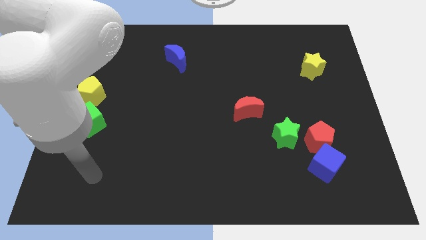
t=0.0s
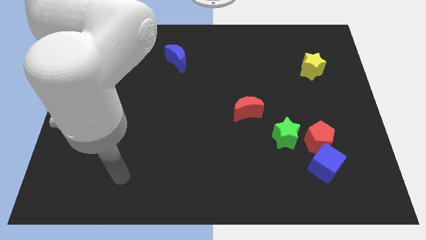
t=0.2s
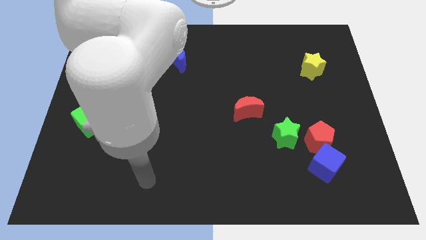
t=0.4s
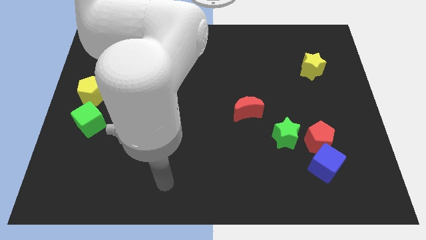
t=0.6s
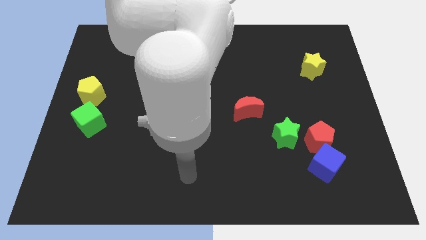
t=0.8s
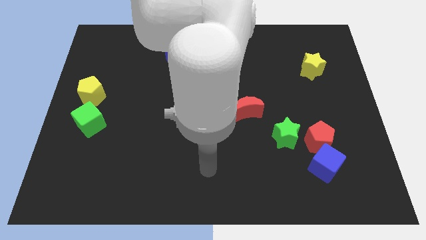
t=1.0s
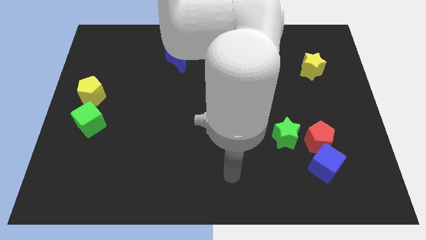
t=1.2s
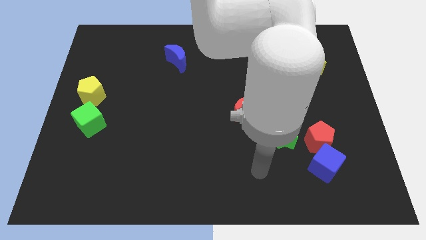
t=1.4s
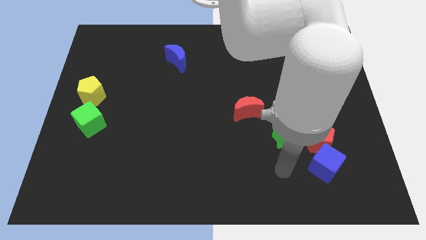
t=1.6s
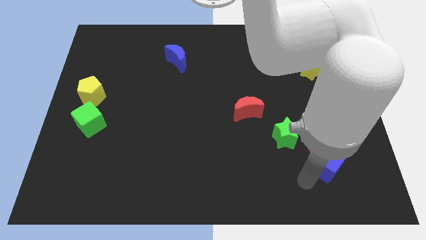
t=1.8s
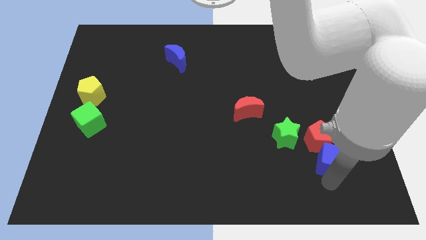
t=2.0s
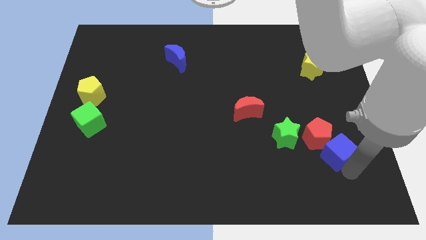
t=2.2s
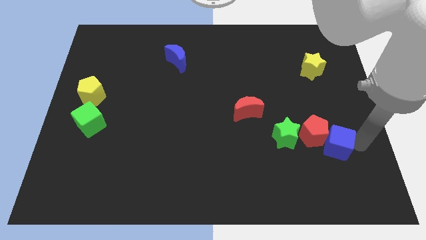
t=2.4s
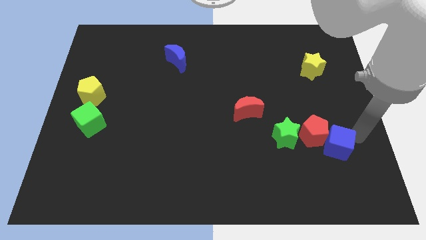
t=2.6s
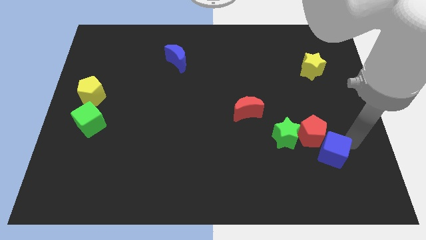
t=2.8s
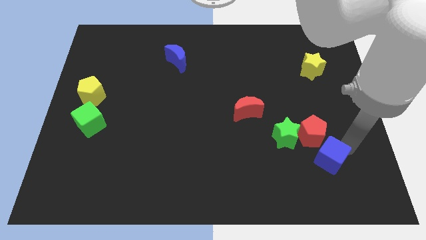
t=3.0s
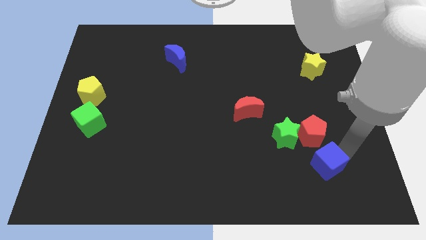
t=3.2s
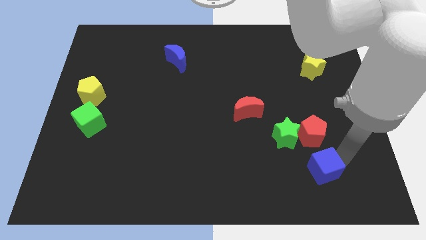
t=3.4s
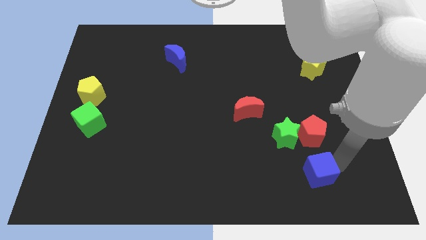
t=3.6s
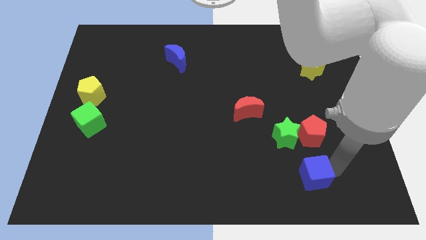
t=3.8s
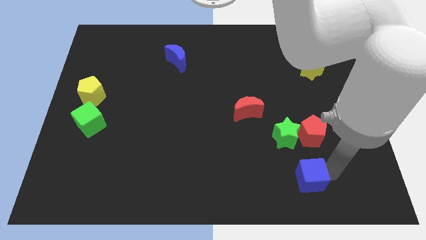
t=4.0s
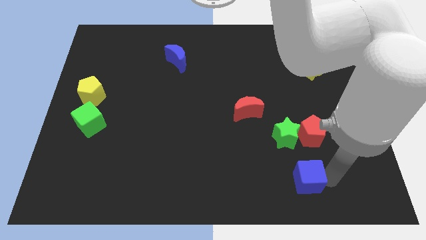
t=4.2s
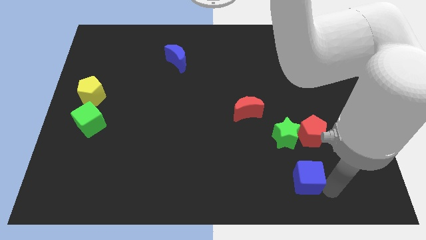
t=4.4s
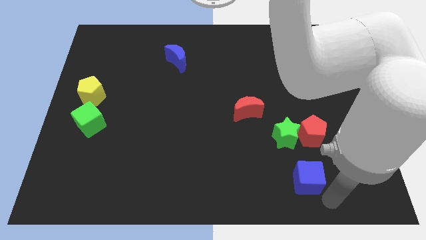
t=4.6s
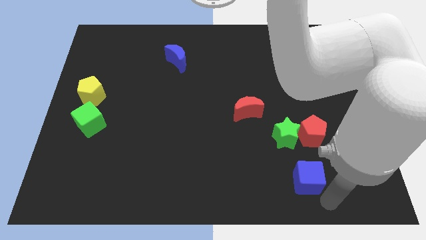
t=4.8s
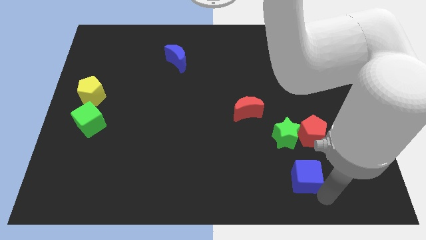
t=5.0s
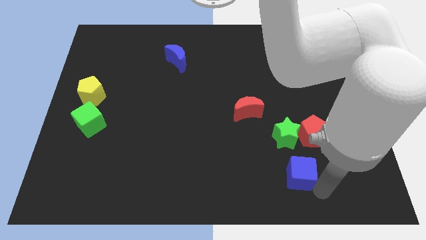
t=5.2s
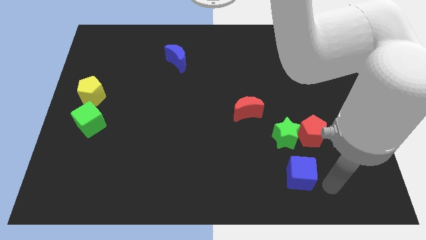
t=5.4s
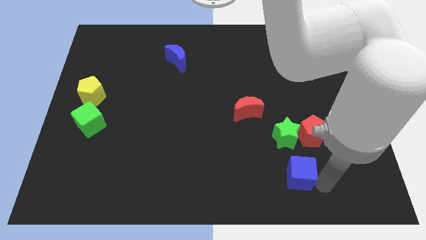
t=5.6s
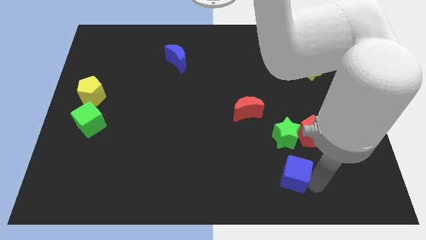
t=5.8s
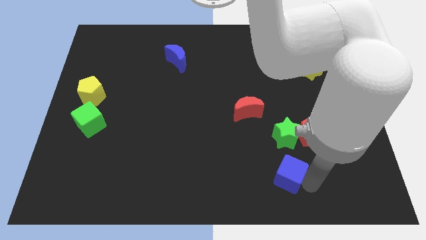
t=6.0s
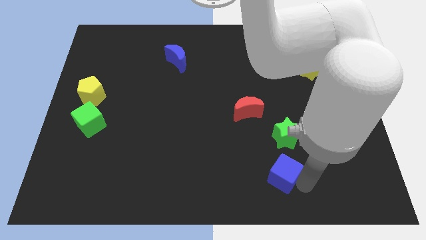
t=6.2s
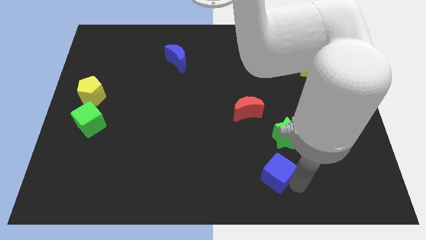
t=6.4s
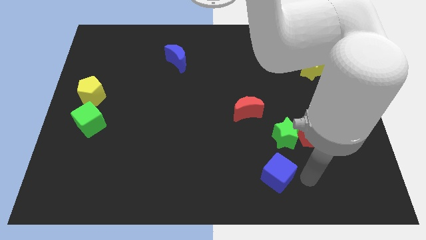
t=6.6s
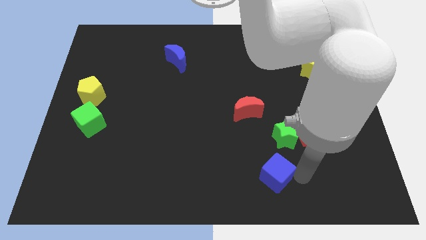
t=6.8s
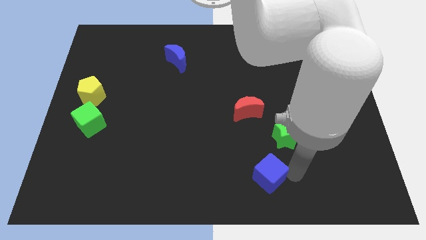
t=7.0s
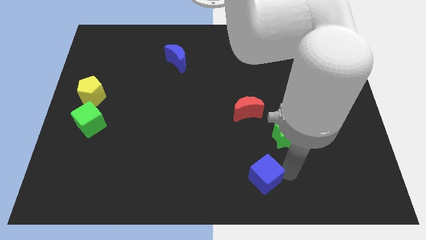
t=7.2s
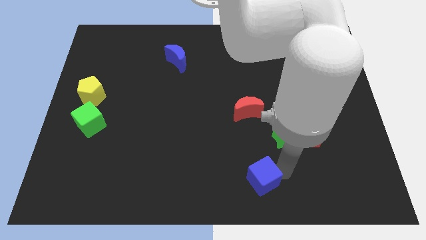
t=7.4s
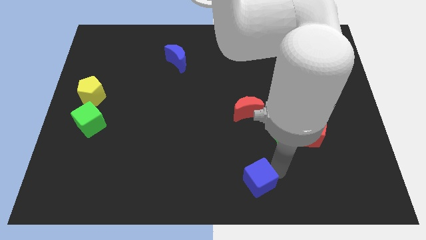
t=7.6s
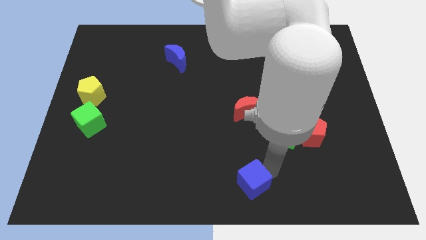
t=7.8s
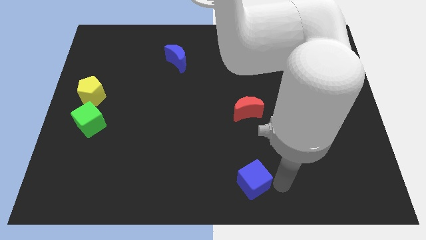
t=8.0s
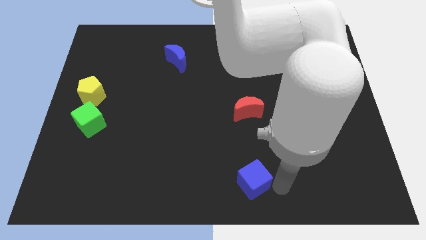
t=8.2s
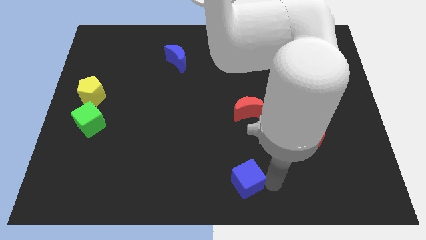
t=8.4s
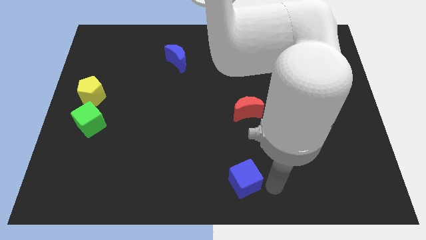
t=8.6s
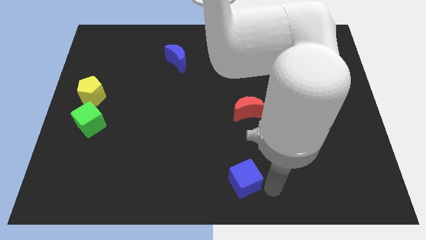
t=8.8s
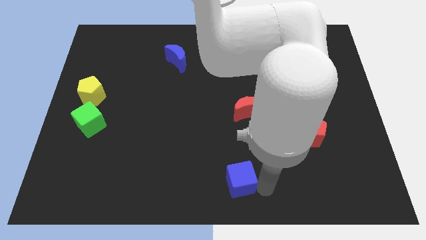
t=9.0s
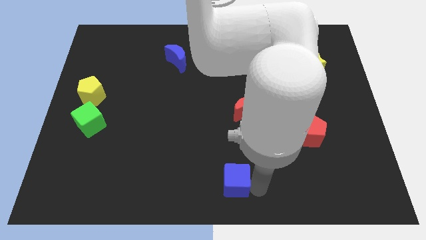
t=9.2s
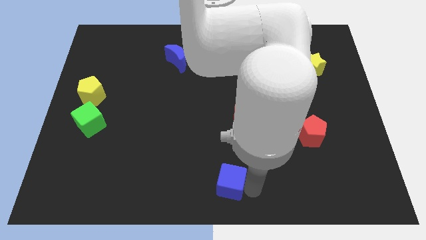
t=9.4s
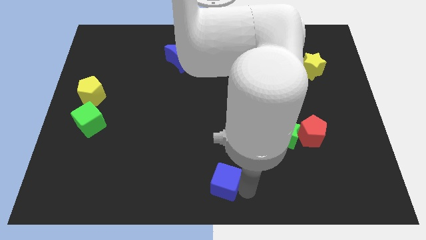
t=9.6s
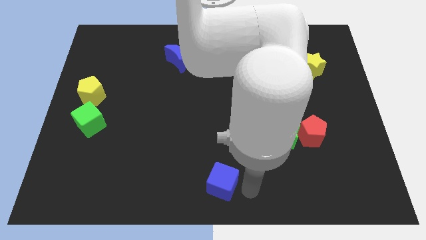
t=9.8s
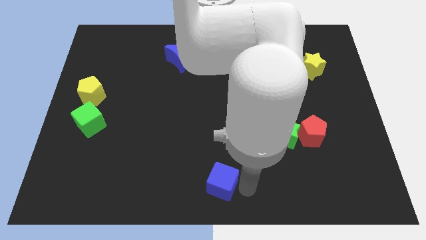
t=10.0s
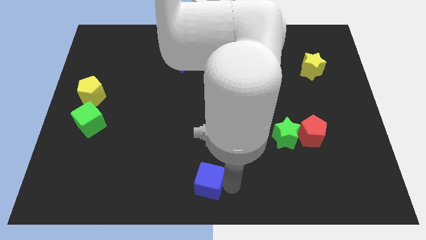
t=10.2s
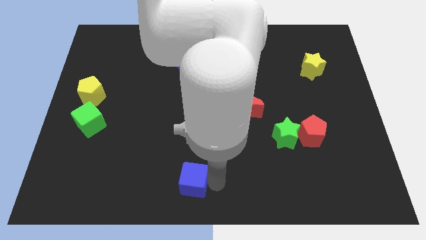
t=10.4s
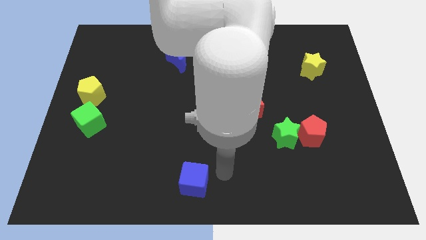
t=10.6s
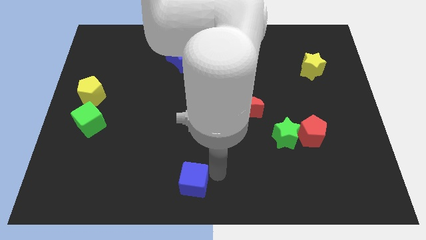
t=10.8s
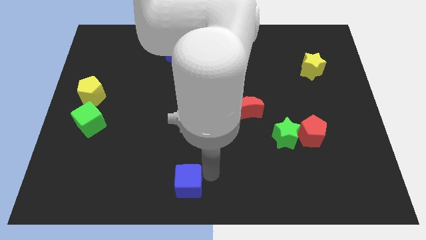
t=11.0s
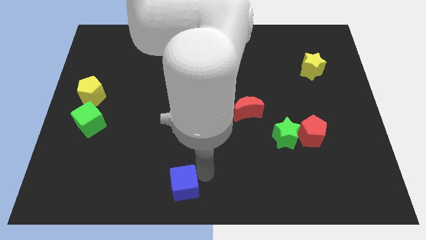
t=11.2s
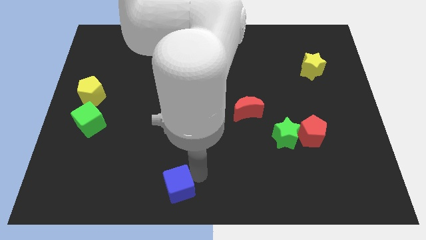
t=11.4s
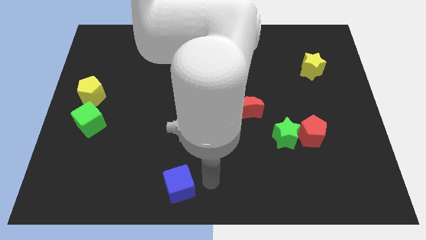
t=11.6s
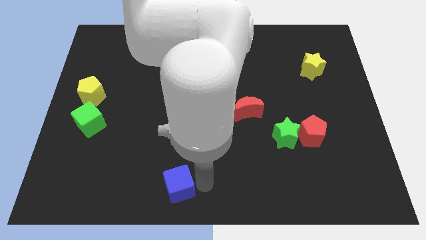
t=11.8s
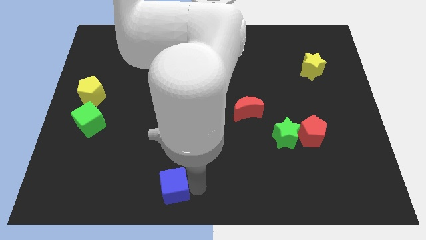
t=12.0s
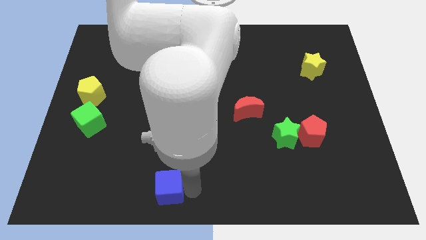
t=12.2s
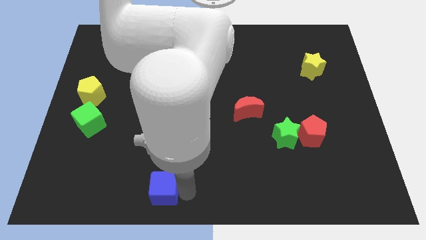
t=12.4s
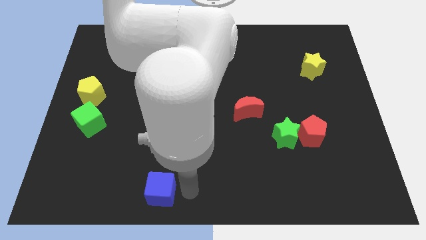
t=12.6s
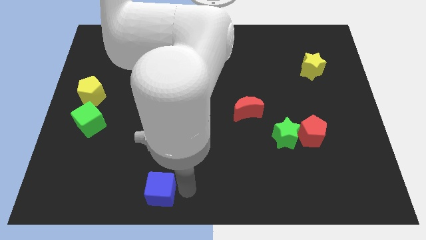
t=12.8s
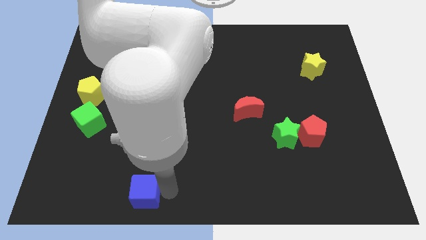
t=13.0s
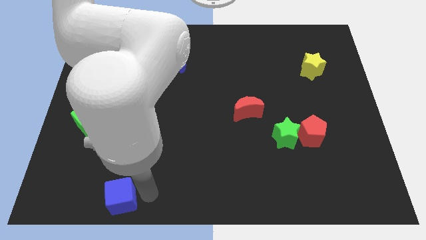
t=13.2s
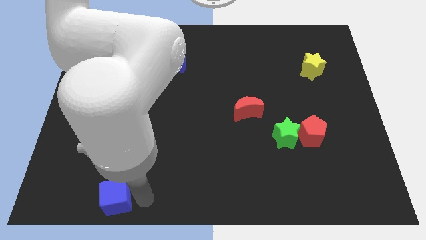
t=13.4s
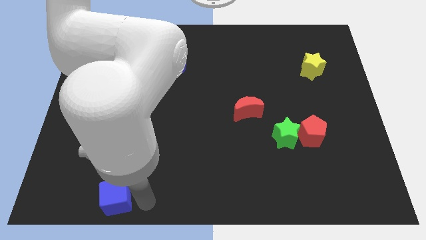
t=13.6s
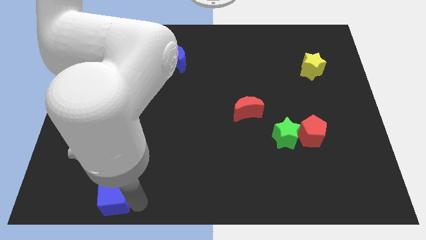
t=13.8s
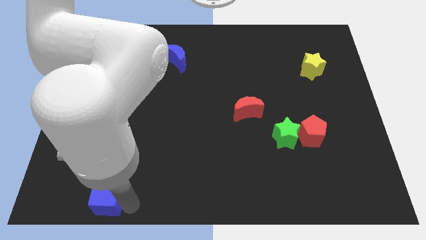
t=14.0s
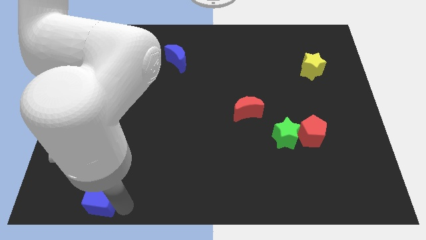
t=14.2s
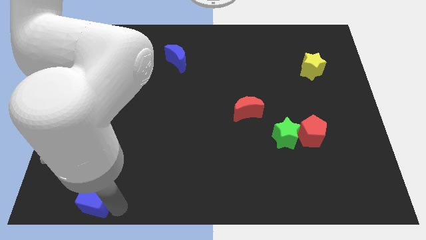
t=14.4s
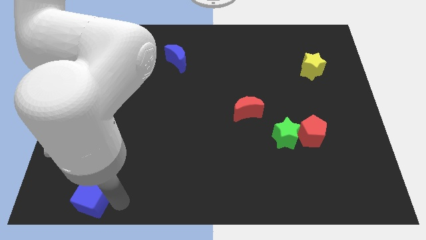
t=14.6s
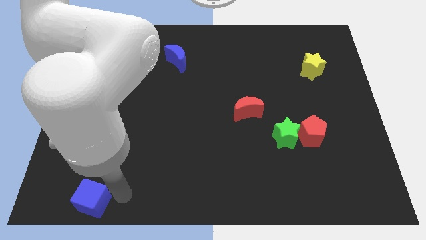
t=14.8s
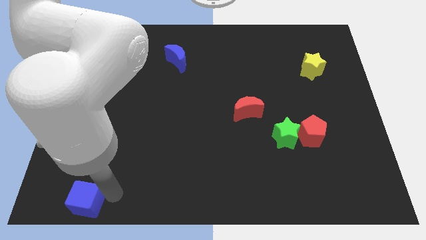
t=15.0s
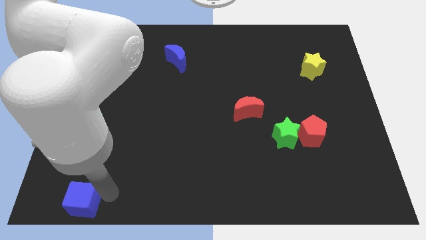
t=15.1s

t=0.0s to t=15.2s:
put the blue cube to the lower left corner
